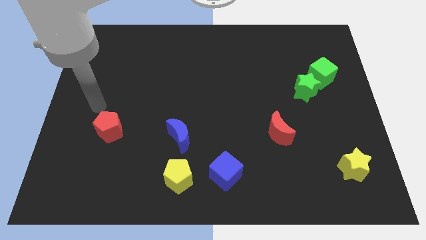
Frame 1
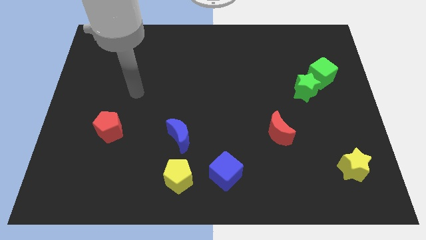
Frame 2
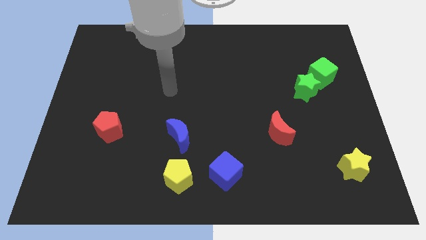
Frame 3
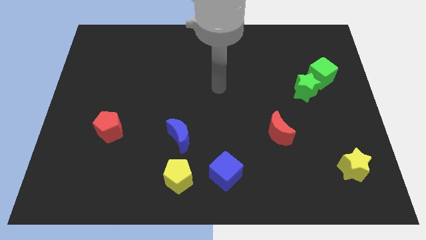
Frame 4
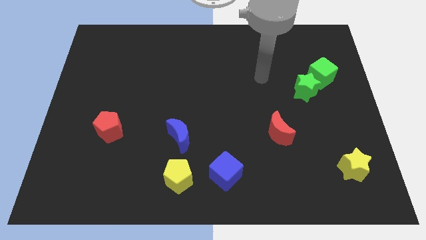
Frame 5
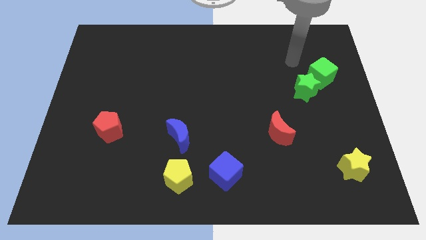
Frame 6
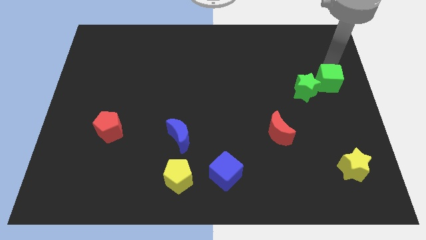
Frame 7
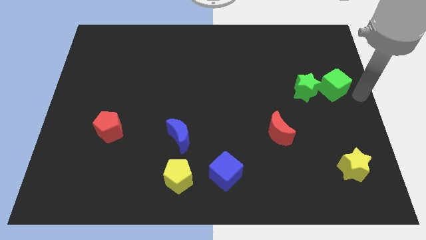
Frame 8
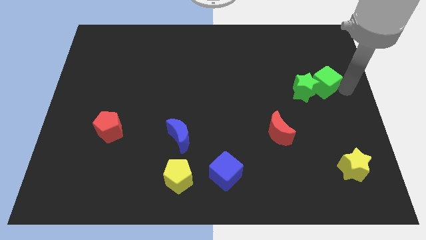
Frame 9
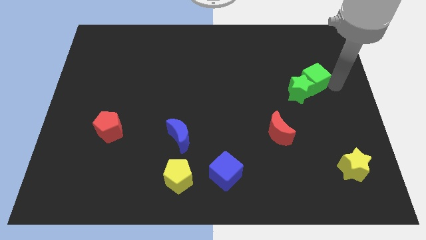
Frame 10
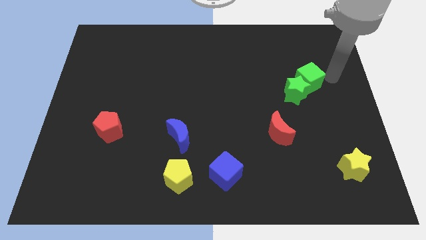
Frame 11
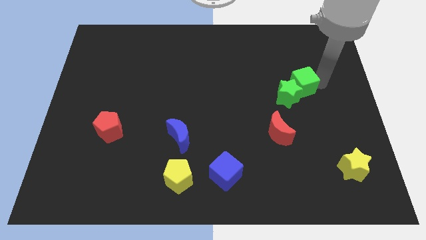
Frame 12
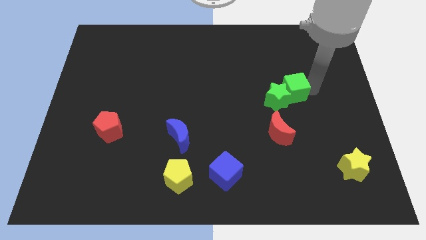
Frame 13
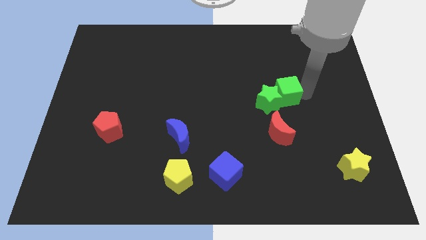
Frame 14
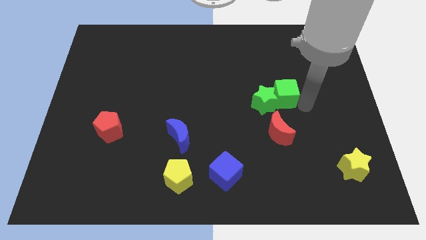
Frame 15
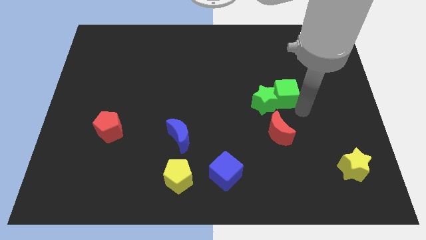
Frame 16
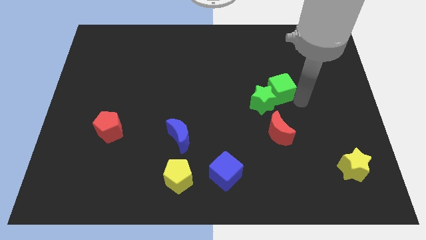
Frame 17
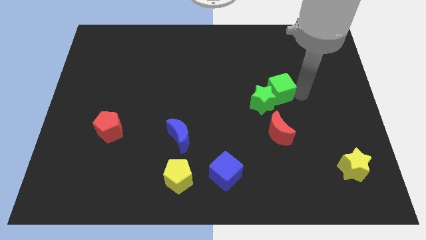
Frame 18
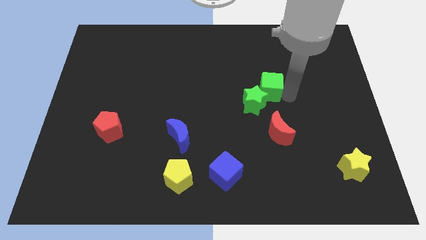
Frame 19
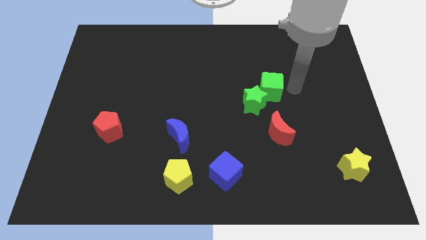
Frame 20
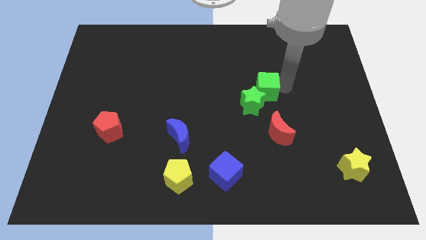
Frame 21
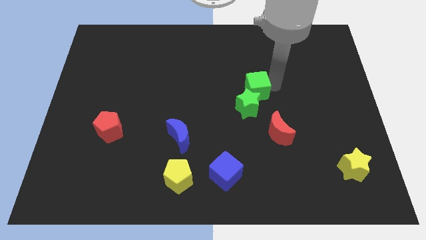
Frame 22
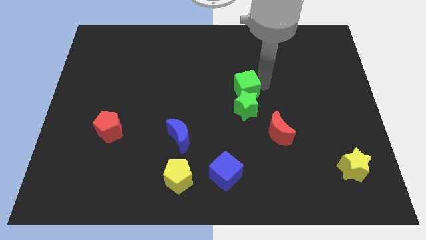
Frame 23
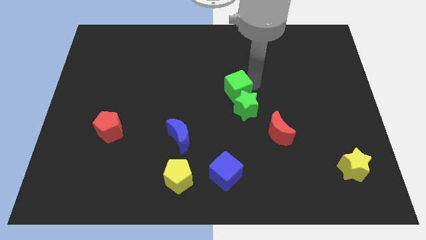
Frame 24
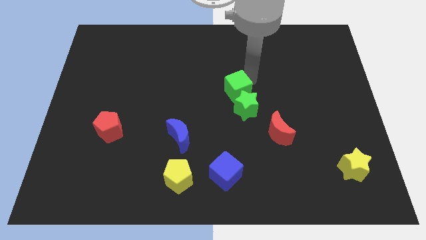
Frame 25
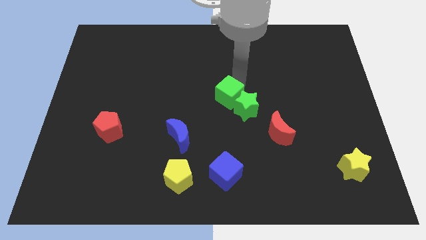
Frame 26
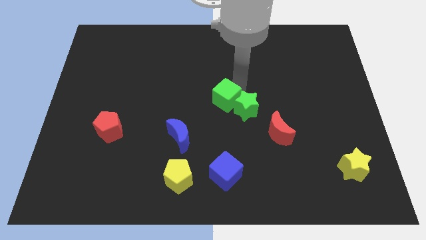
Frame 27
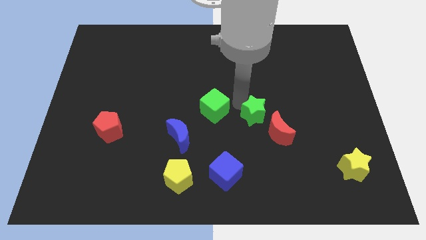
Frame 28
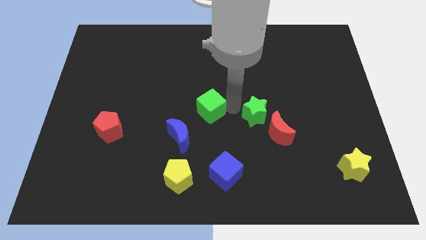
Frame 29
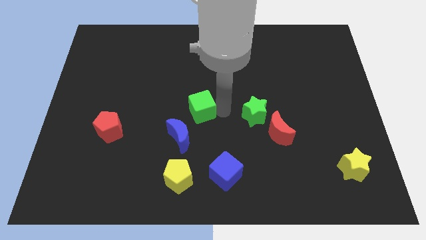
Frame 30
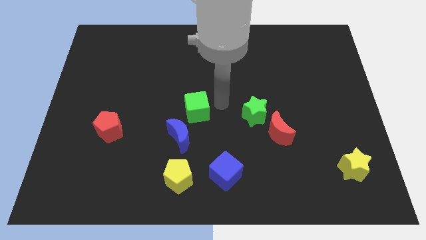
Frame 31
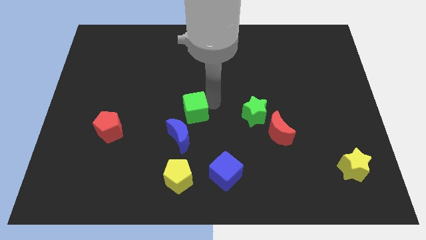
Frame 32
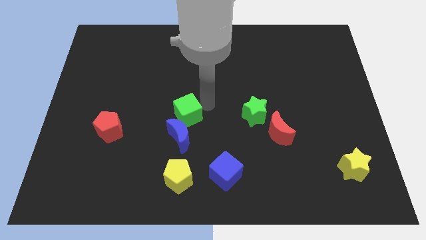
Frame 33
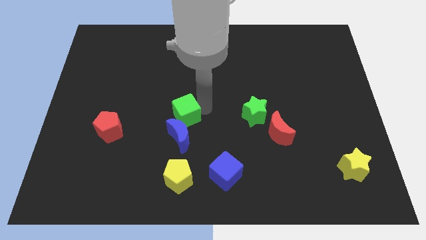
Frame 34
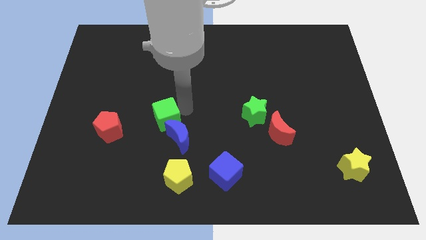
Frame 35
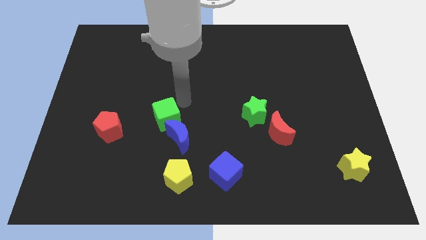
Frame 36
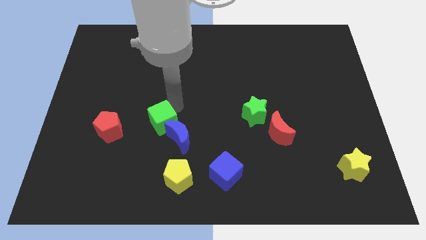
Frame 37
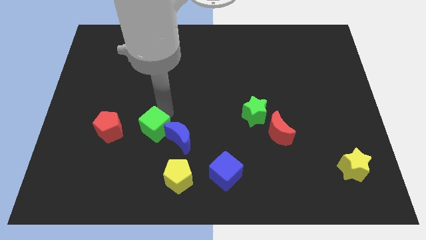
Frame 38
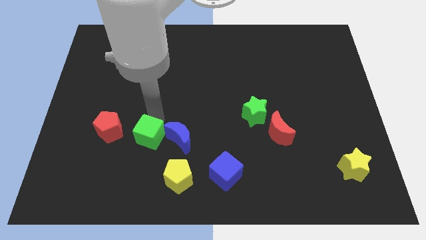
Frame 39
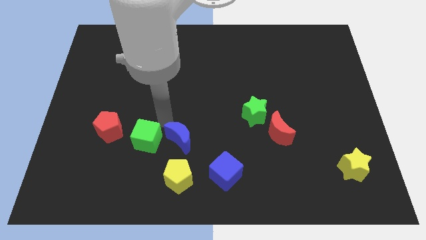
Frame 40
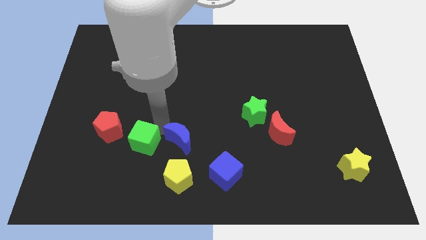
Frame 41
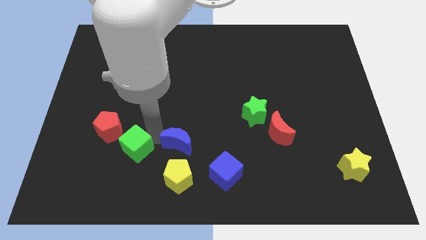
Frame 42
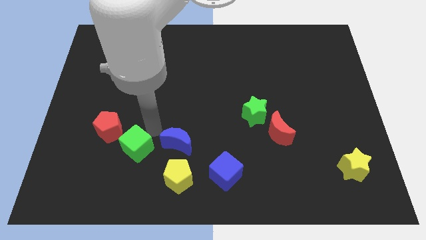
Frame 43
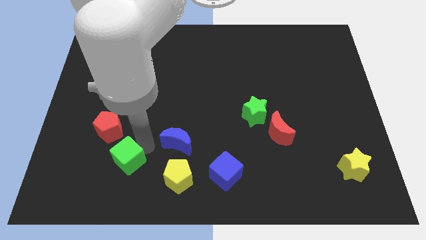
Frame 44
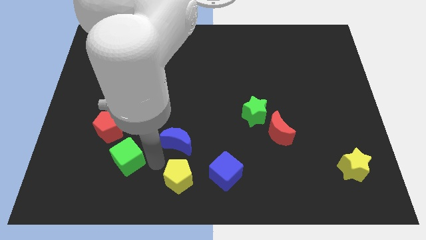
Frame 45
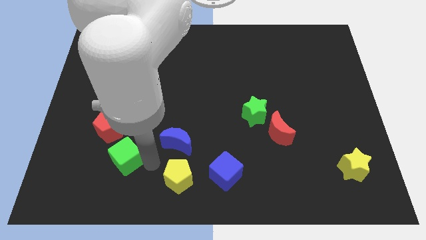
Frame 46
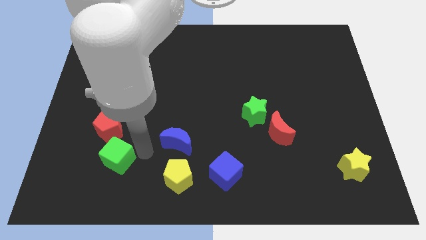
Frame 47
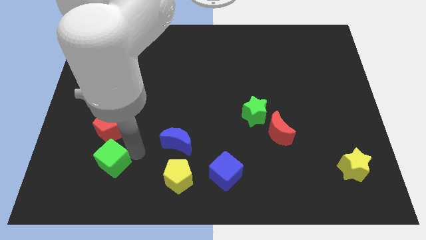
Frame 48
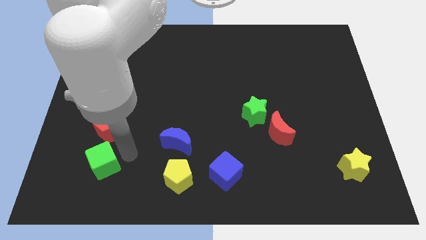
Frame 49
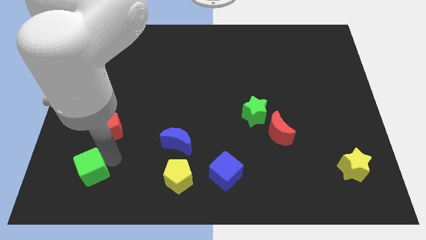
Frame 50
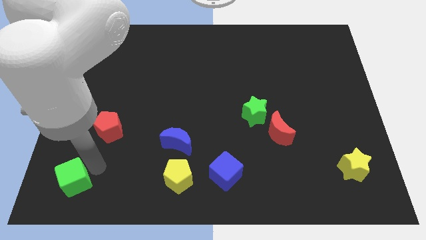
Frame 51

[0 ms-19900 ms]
slide the green cube to the bottom left
